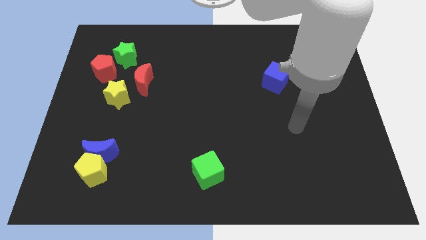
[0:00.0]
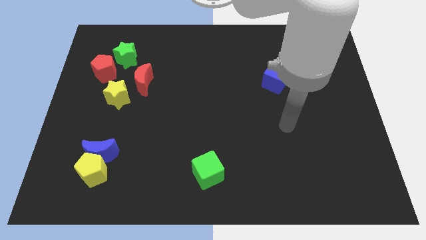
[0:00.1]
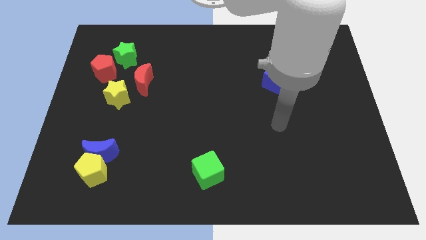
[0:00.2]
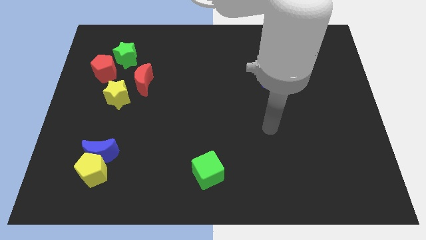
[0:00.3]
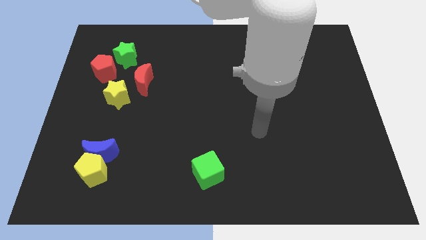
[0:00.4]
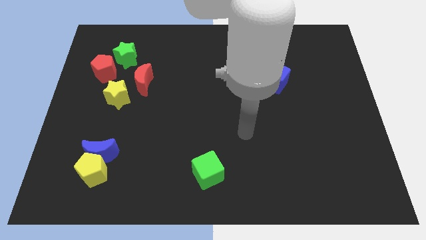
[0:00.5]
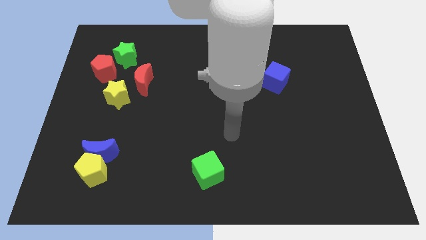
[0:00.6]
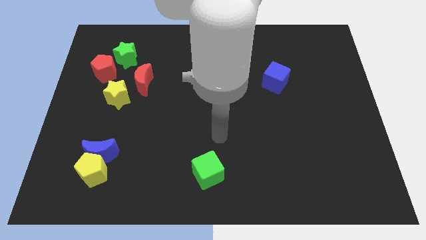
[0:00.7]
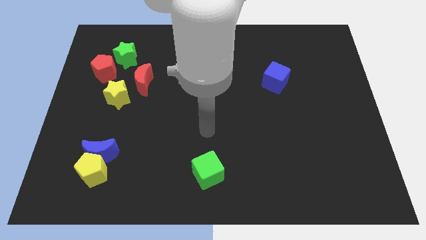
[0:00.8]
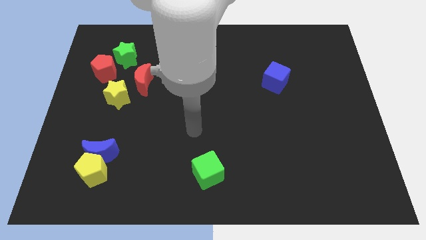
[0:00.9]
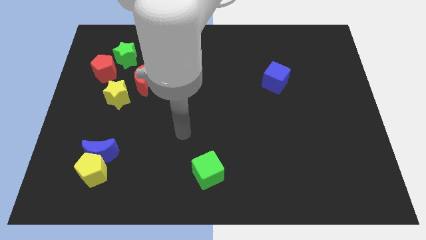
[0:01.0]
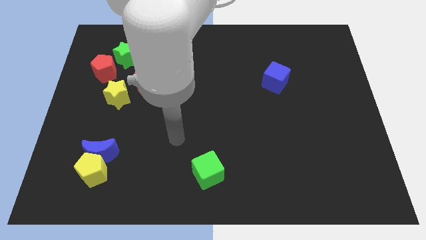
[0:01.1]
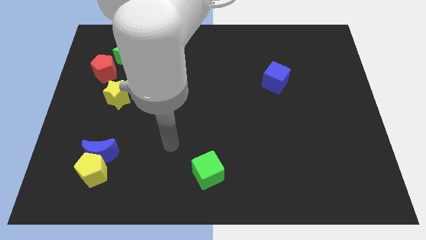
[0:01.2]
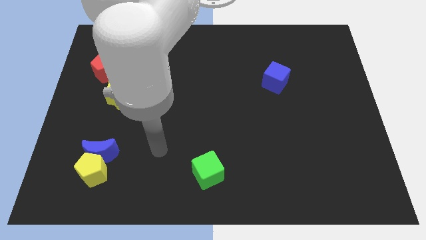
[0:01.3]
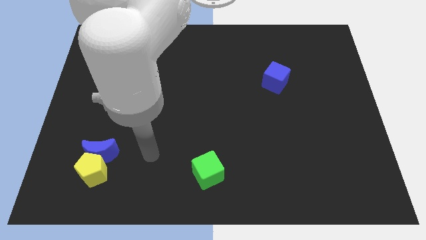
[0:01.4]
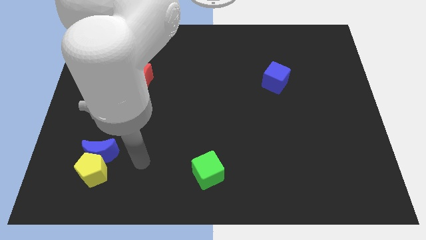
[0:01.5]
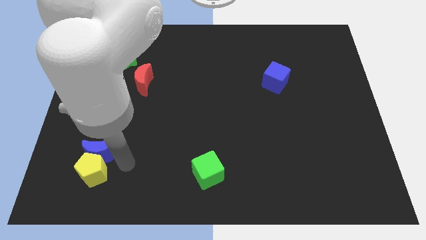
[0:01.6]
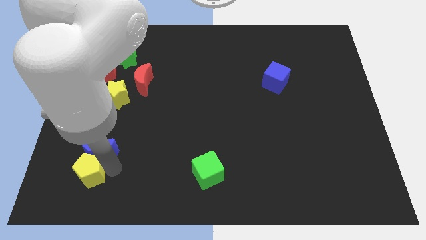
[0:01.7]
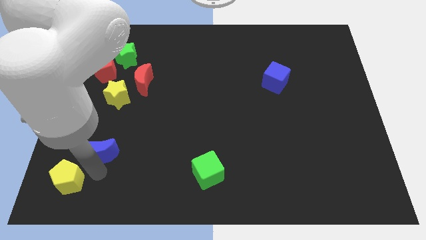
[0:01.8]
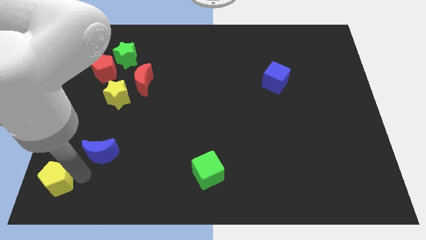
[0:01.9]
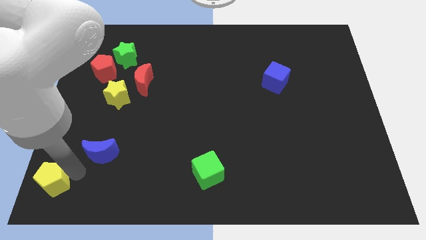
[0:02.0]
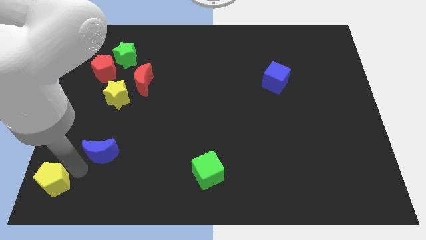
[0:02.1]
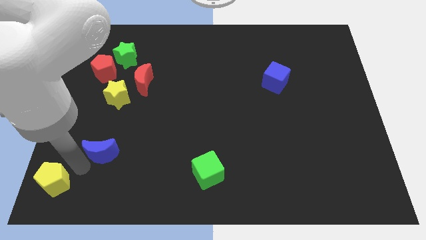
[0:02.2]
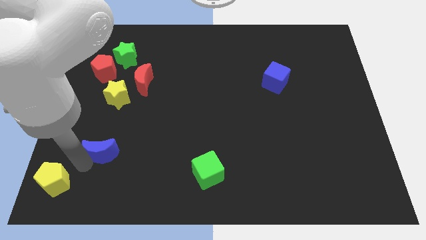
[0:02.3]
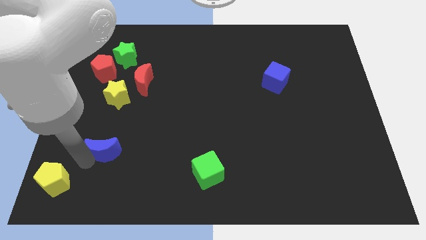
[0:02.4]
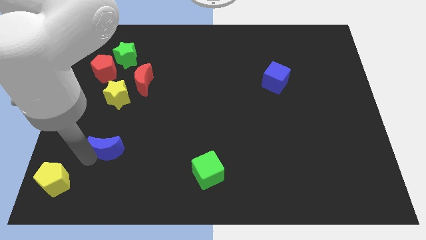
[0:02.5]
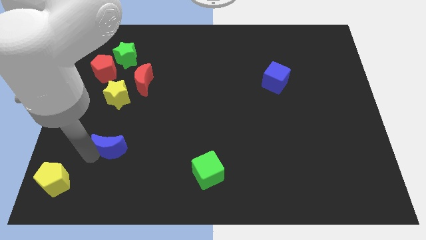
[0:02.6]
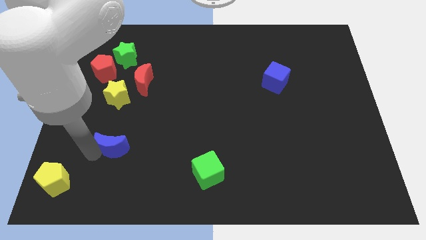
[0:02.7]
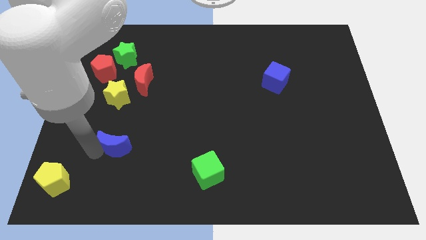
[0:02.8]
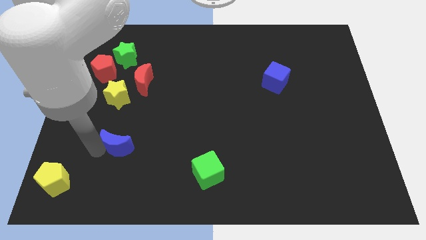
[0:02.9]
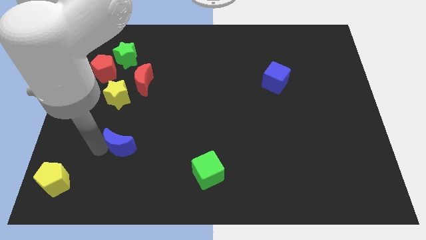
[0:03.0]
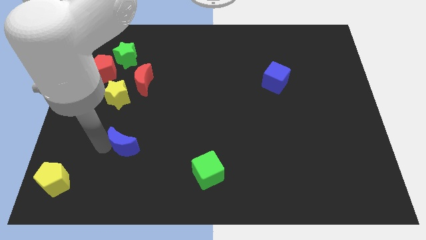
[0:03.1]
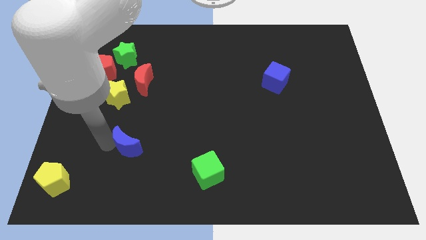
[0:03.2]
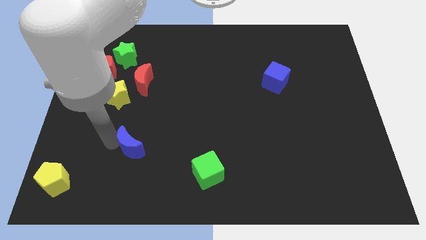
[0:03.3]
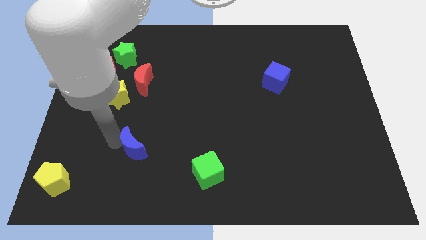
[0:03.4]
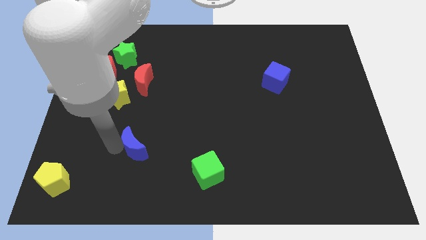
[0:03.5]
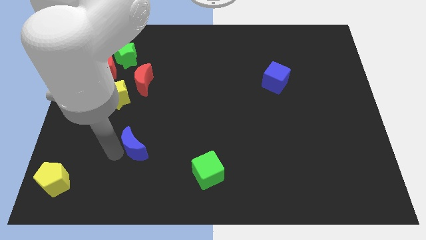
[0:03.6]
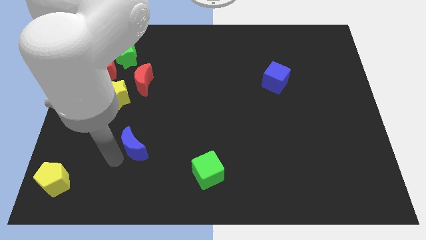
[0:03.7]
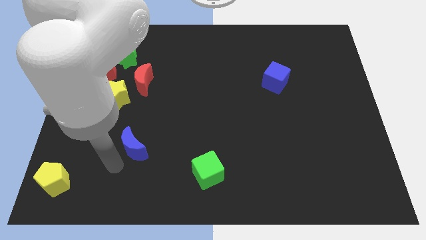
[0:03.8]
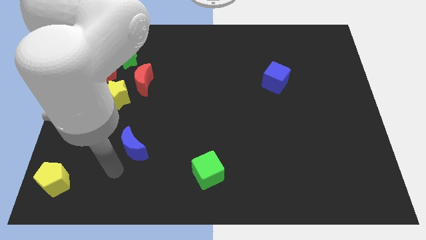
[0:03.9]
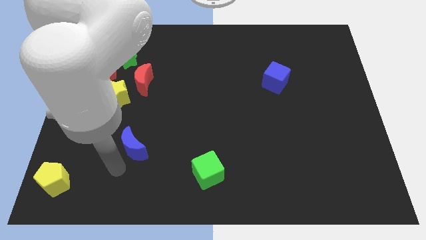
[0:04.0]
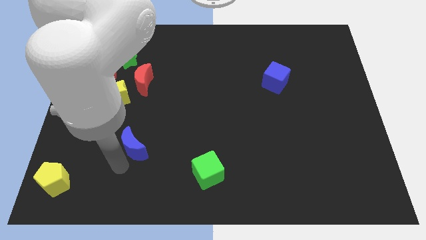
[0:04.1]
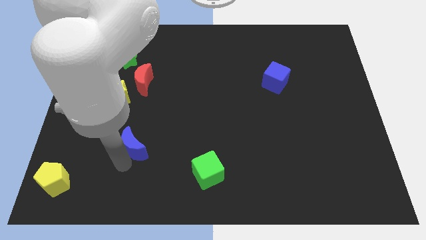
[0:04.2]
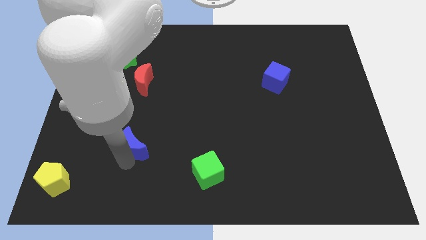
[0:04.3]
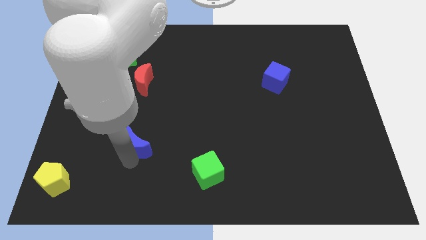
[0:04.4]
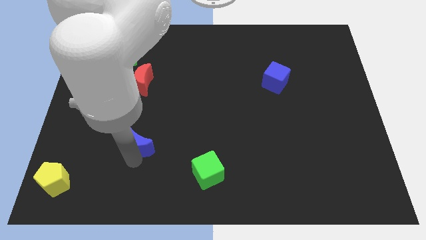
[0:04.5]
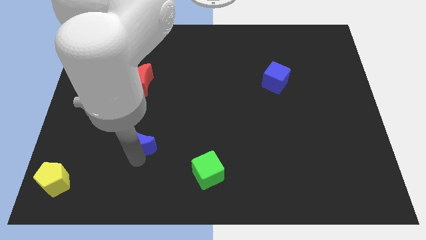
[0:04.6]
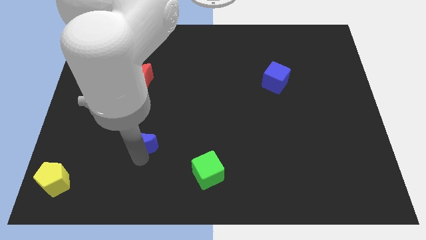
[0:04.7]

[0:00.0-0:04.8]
move the blue moon somewhat diagonally upwards and to the right

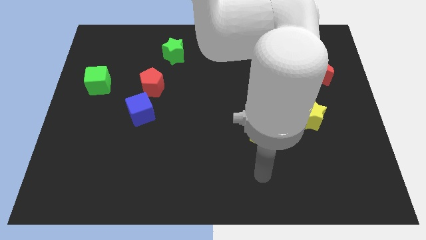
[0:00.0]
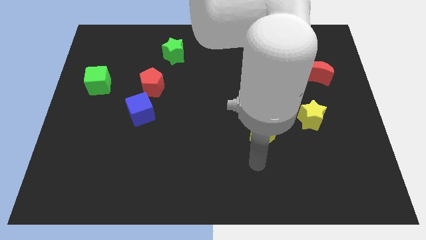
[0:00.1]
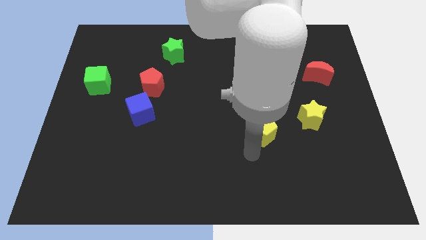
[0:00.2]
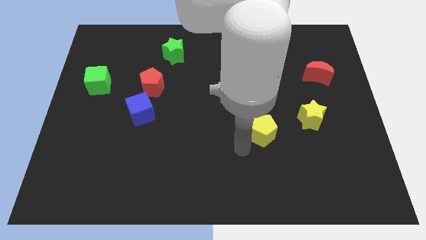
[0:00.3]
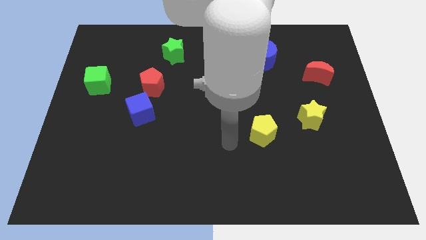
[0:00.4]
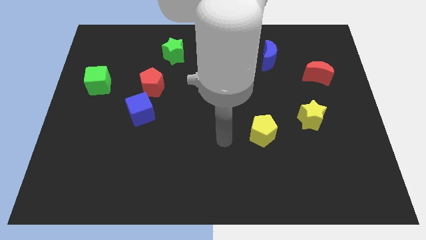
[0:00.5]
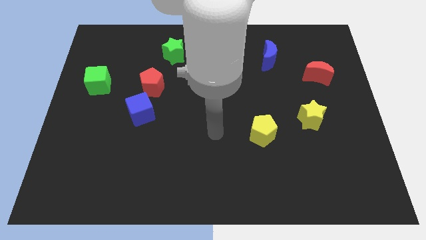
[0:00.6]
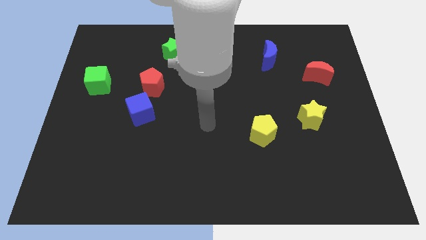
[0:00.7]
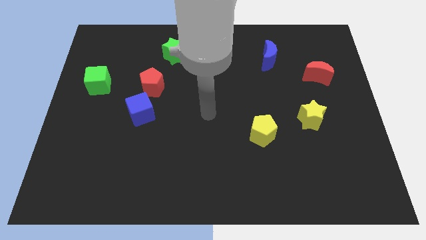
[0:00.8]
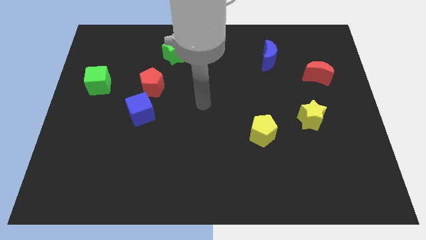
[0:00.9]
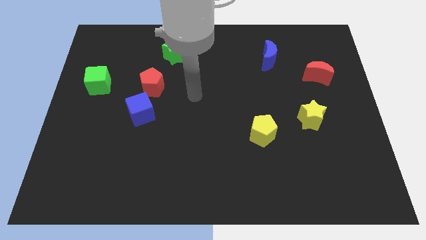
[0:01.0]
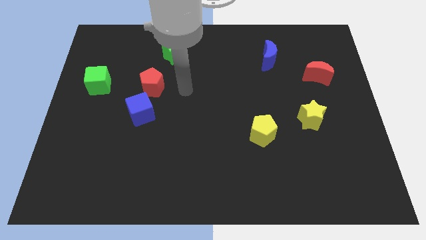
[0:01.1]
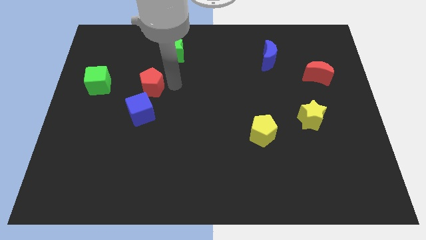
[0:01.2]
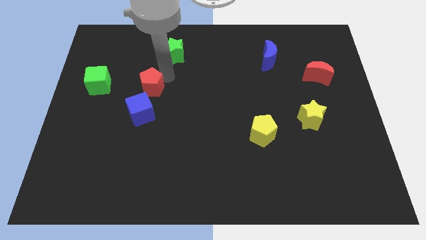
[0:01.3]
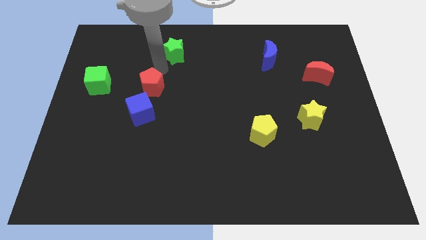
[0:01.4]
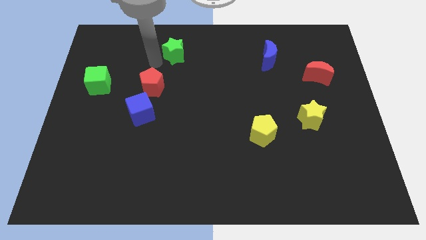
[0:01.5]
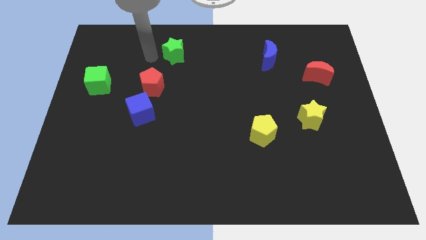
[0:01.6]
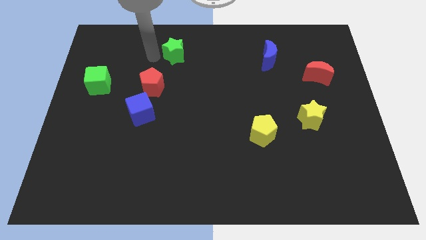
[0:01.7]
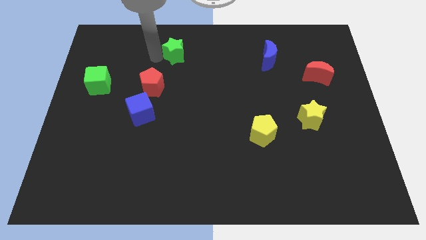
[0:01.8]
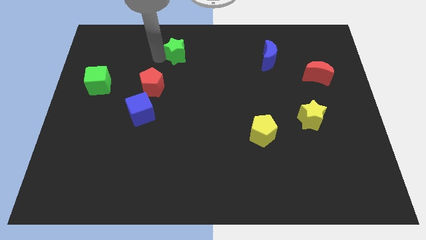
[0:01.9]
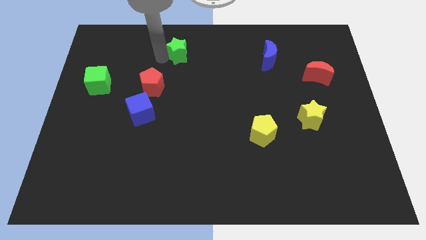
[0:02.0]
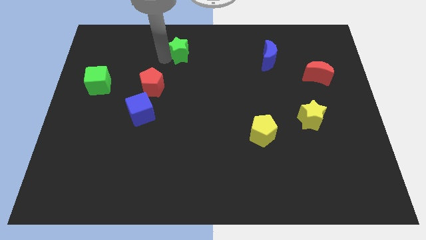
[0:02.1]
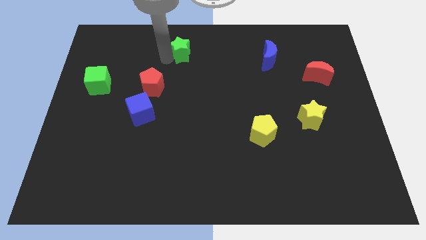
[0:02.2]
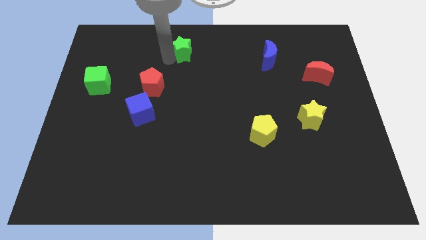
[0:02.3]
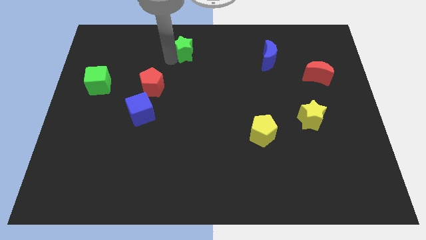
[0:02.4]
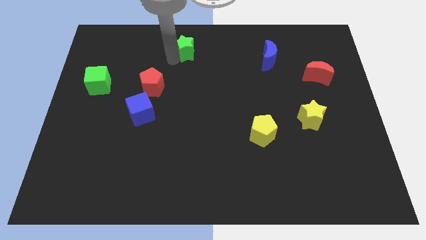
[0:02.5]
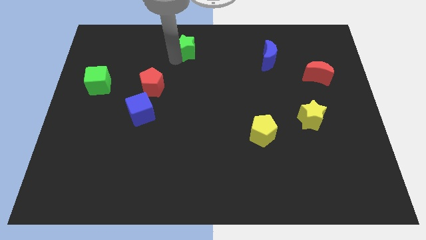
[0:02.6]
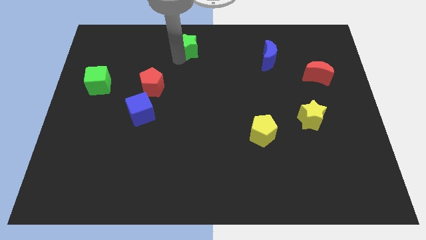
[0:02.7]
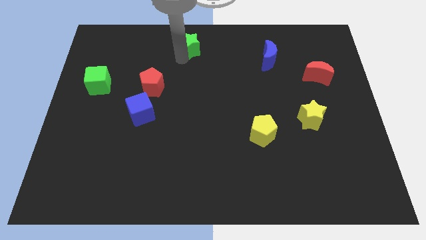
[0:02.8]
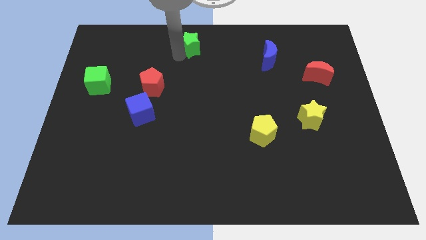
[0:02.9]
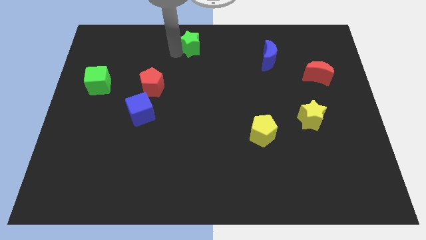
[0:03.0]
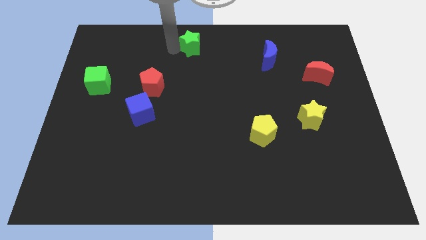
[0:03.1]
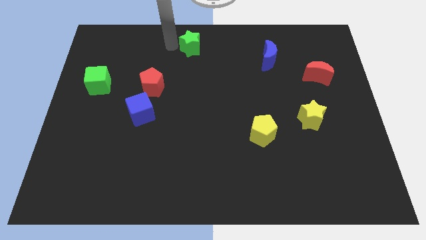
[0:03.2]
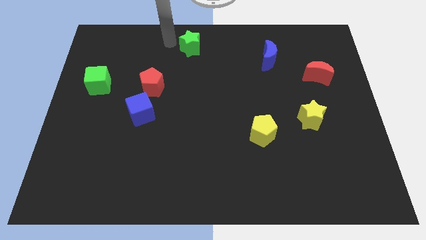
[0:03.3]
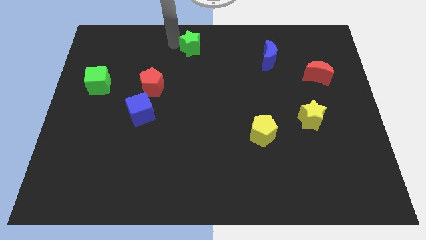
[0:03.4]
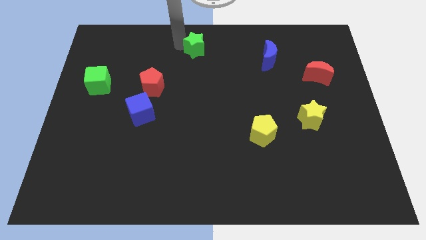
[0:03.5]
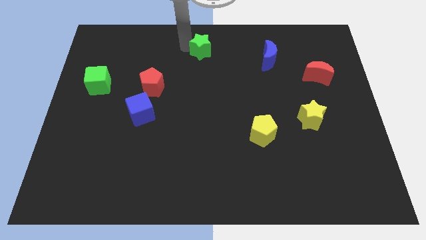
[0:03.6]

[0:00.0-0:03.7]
move the green star a little bit right
